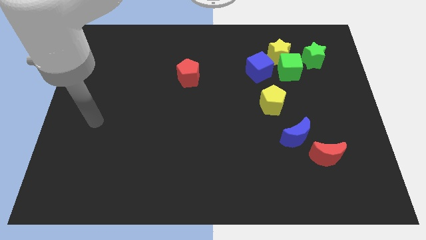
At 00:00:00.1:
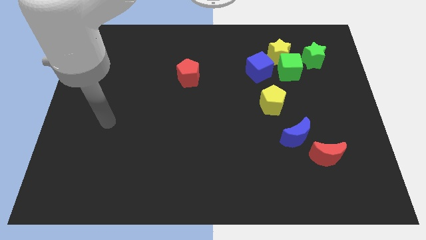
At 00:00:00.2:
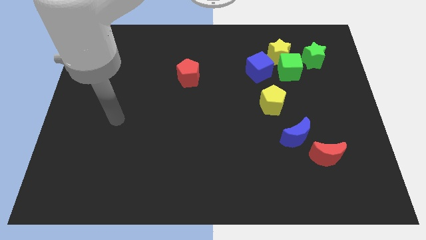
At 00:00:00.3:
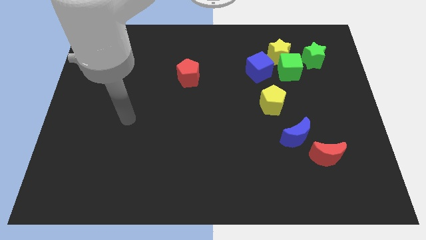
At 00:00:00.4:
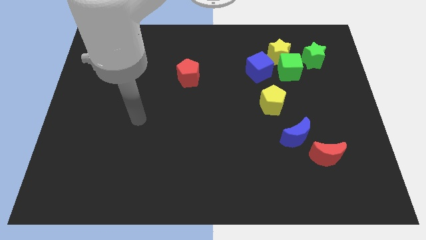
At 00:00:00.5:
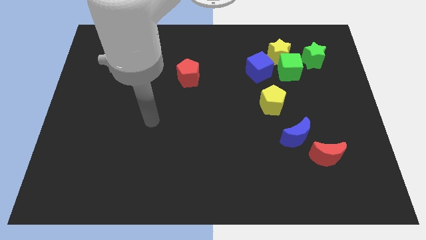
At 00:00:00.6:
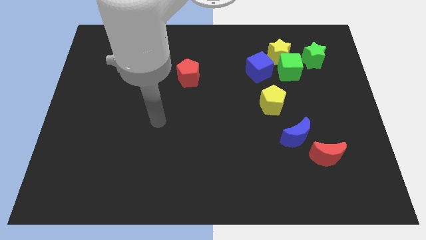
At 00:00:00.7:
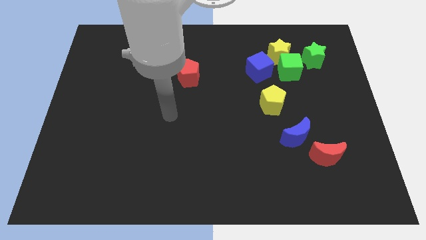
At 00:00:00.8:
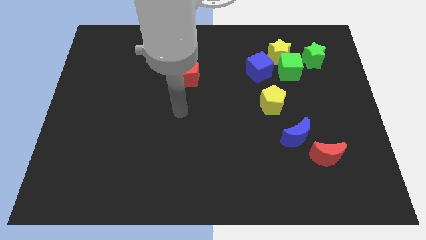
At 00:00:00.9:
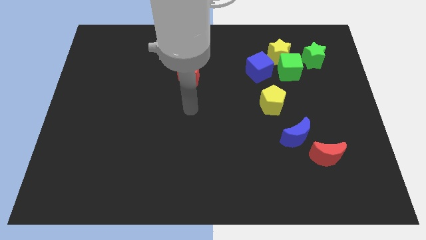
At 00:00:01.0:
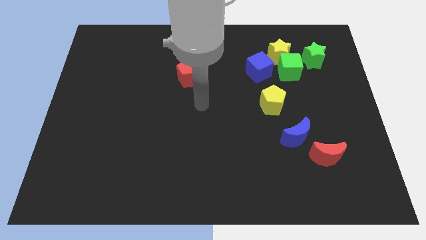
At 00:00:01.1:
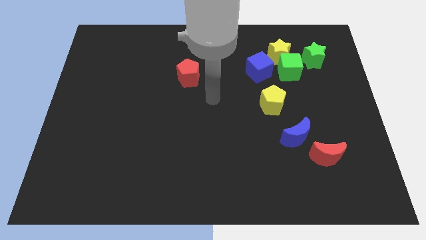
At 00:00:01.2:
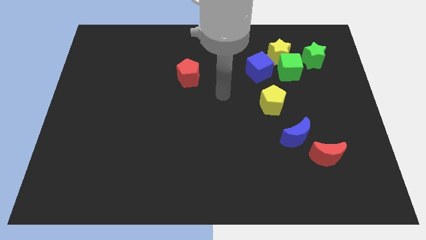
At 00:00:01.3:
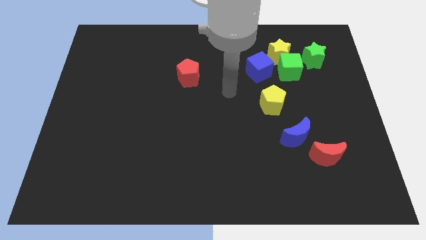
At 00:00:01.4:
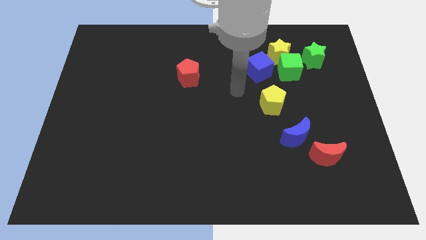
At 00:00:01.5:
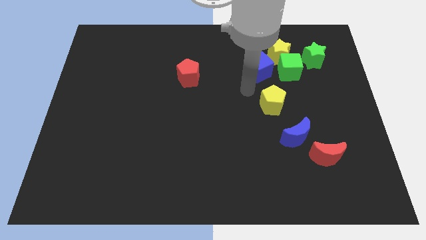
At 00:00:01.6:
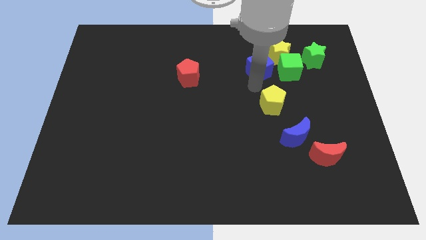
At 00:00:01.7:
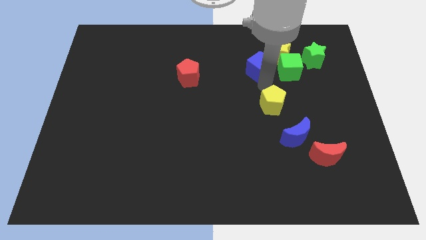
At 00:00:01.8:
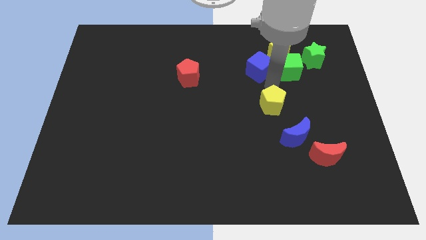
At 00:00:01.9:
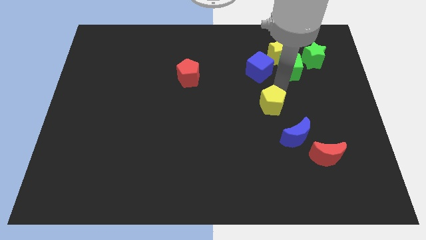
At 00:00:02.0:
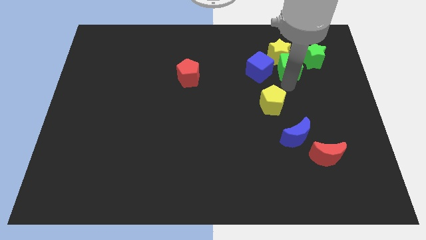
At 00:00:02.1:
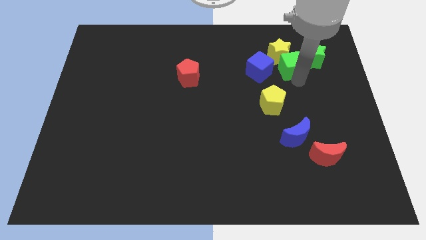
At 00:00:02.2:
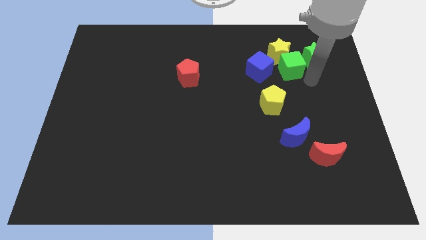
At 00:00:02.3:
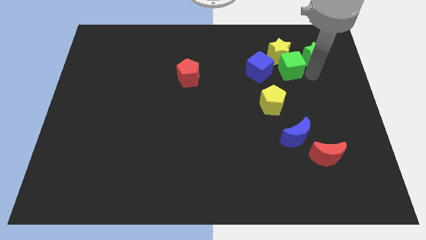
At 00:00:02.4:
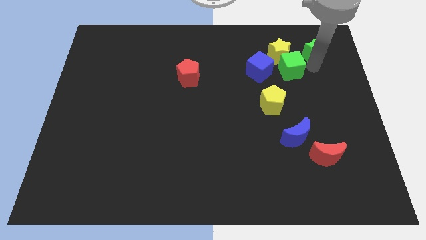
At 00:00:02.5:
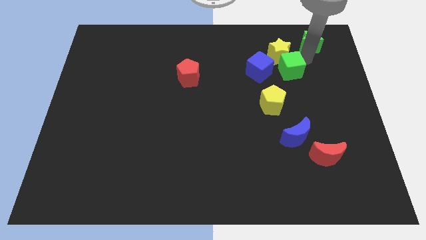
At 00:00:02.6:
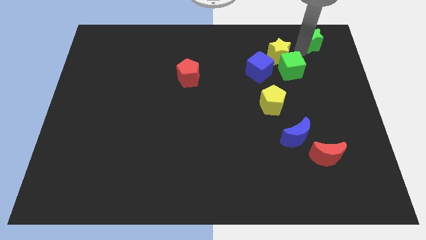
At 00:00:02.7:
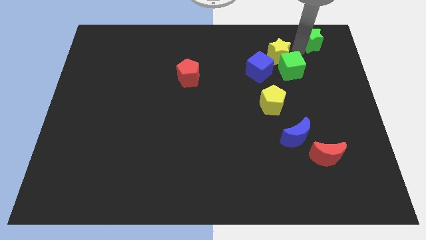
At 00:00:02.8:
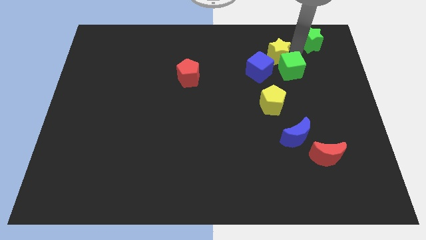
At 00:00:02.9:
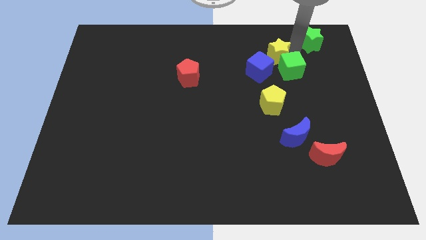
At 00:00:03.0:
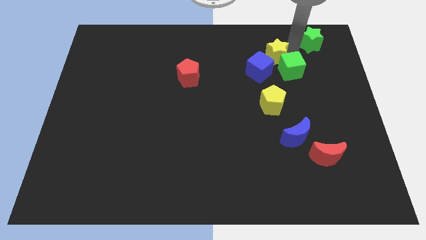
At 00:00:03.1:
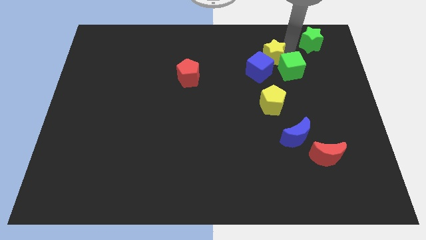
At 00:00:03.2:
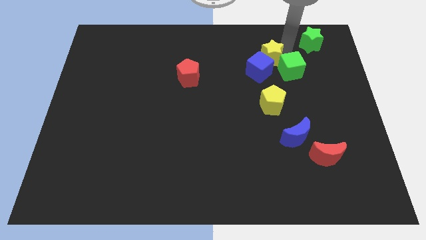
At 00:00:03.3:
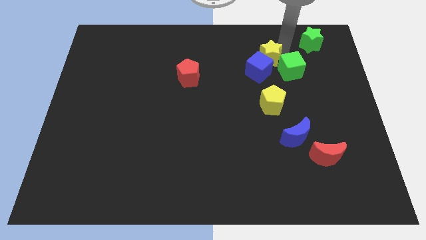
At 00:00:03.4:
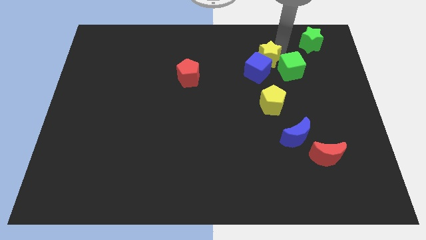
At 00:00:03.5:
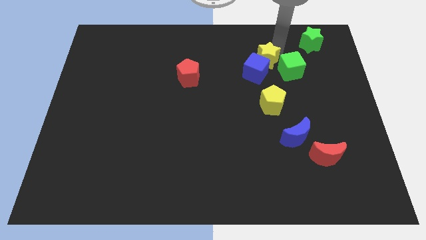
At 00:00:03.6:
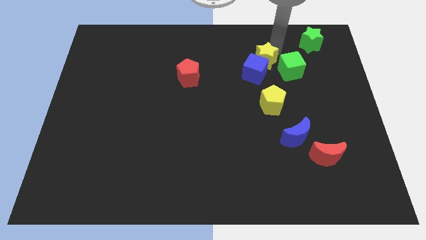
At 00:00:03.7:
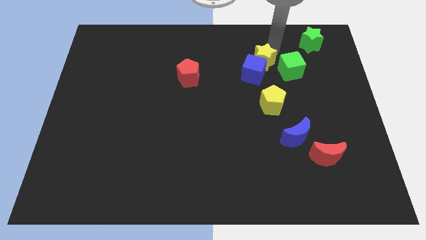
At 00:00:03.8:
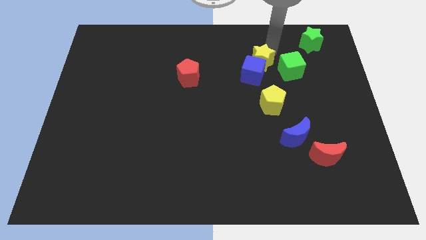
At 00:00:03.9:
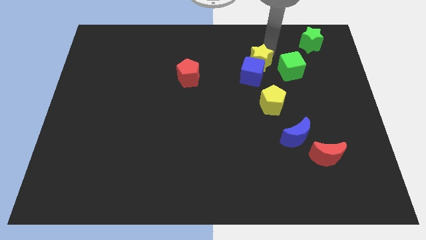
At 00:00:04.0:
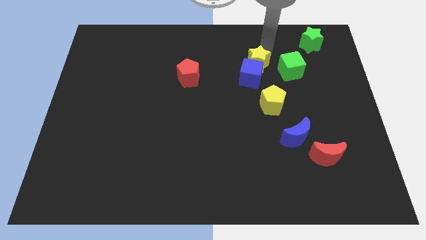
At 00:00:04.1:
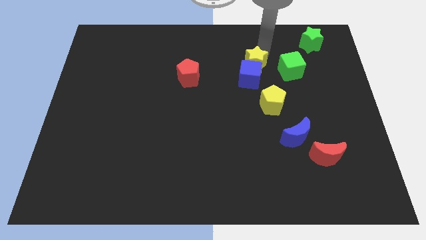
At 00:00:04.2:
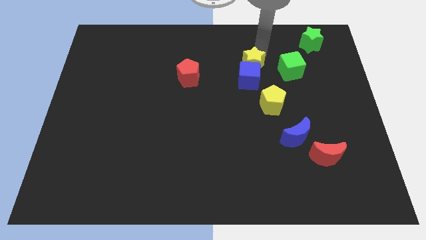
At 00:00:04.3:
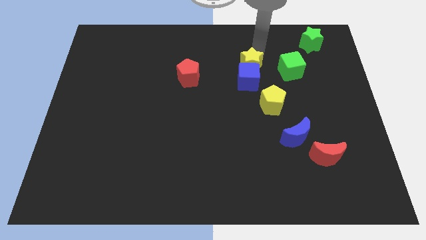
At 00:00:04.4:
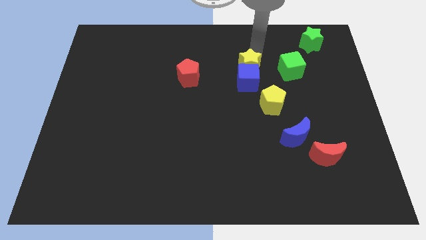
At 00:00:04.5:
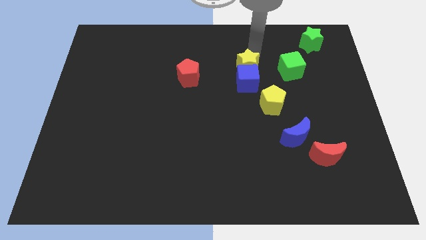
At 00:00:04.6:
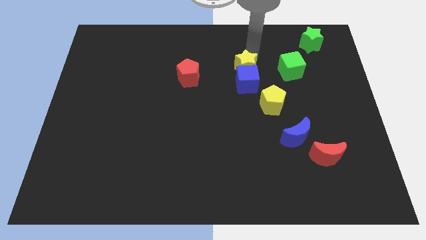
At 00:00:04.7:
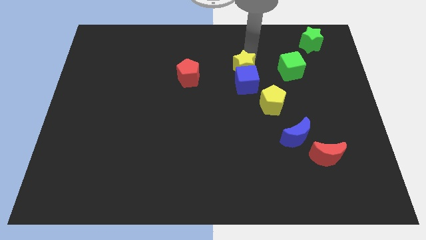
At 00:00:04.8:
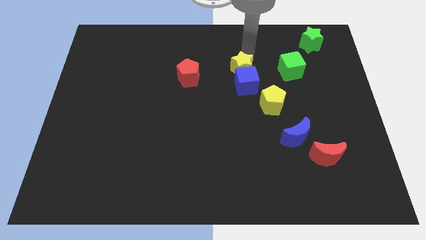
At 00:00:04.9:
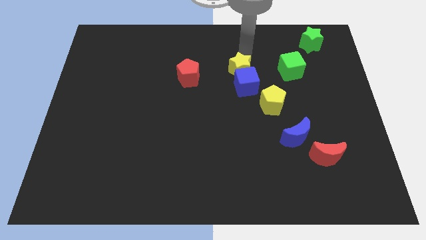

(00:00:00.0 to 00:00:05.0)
move the yellow star to the middle
